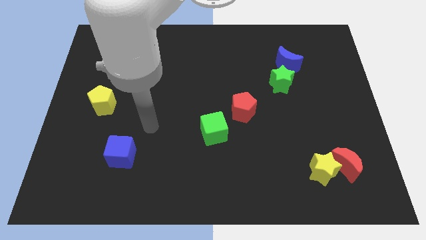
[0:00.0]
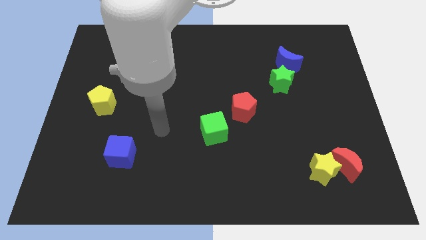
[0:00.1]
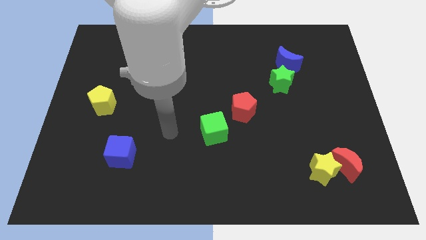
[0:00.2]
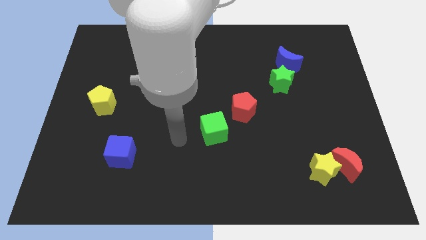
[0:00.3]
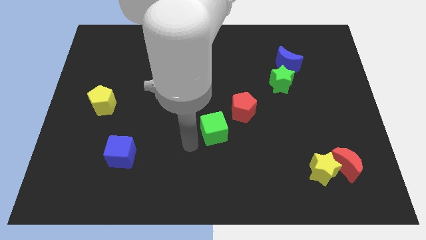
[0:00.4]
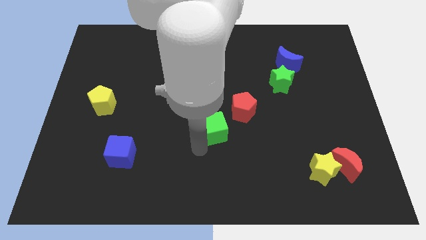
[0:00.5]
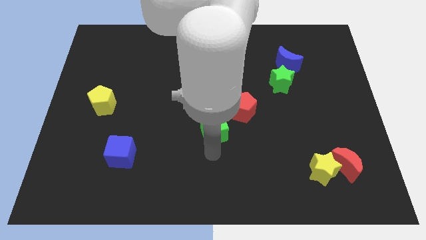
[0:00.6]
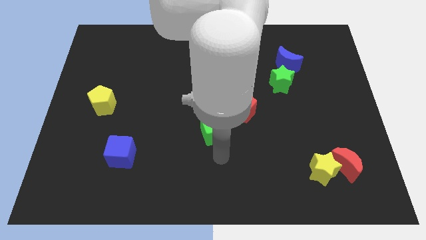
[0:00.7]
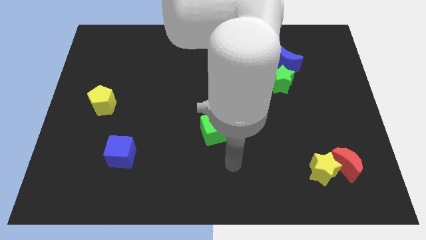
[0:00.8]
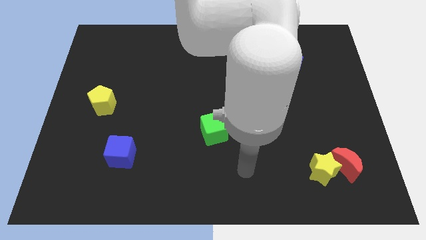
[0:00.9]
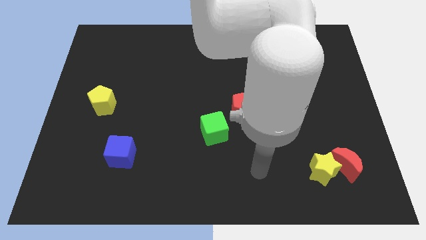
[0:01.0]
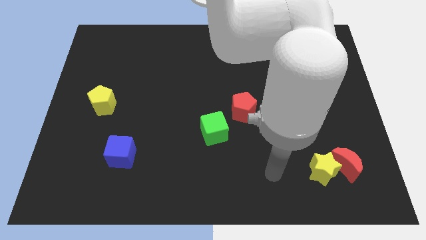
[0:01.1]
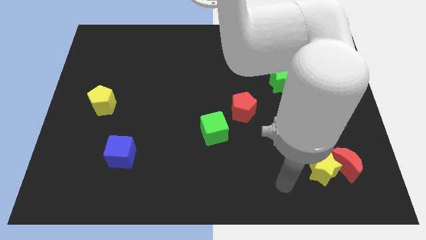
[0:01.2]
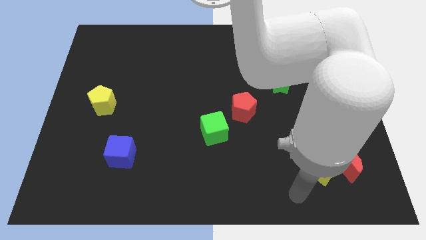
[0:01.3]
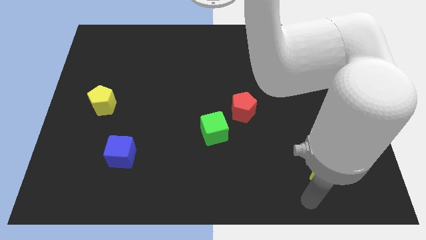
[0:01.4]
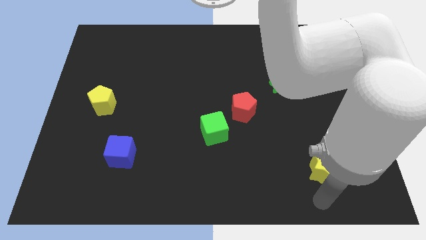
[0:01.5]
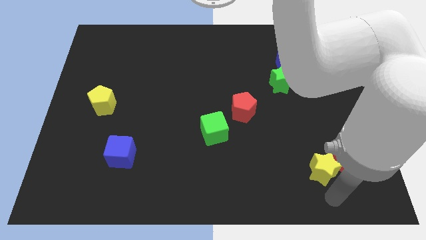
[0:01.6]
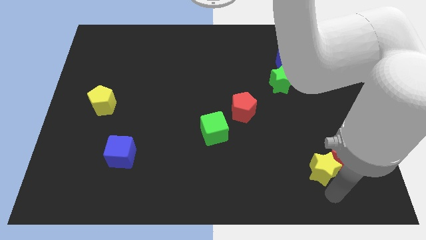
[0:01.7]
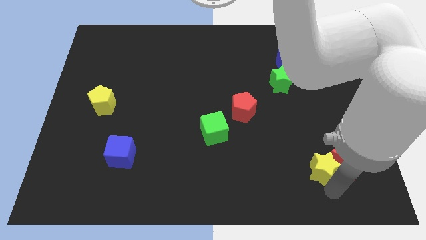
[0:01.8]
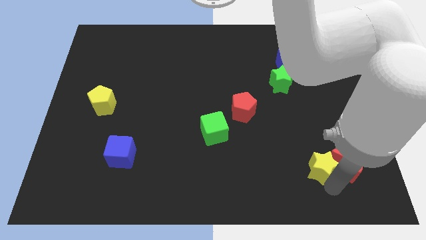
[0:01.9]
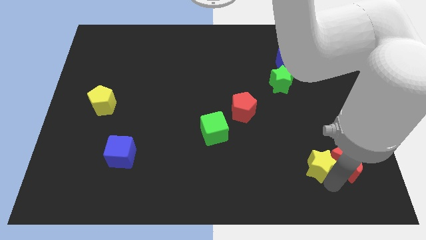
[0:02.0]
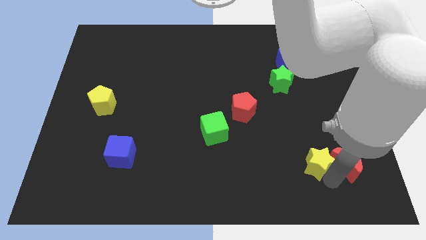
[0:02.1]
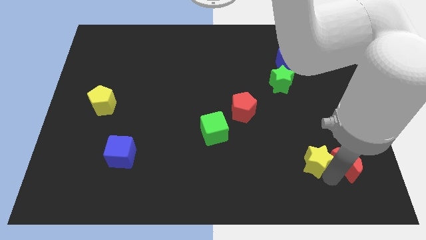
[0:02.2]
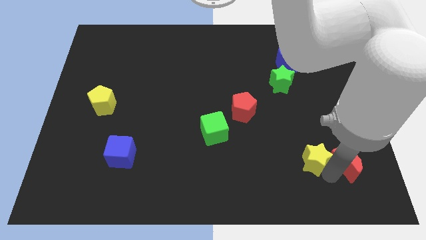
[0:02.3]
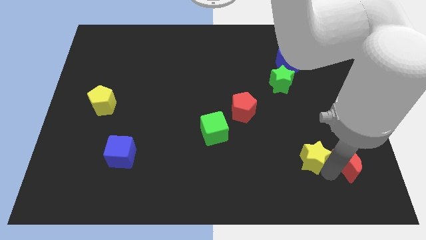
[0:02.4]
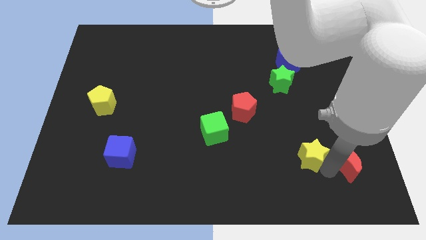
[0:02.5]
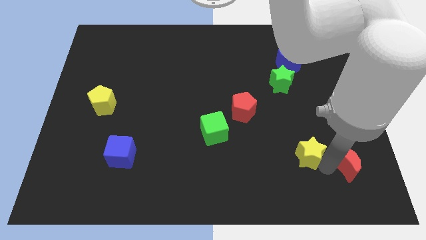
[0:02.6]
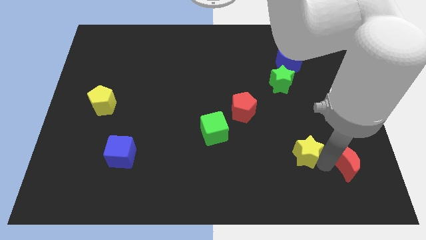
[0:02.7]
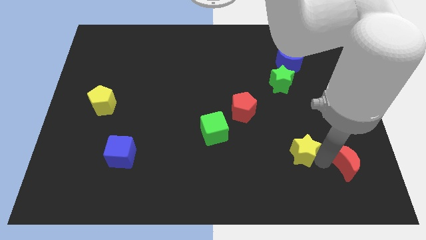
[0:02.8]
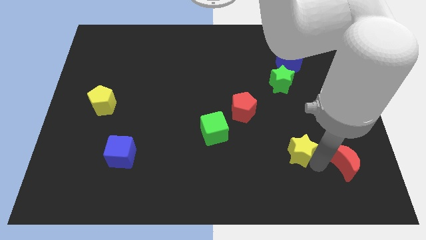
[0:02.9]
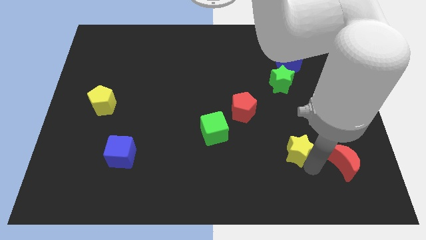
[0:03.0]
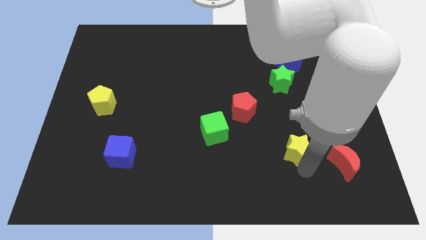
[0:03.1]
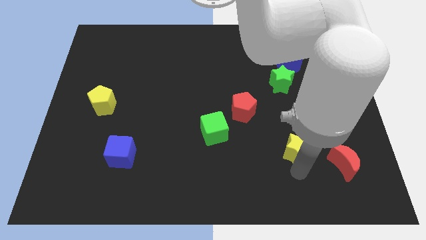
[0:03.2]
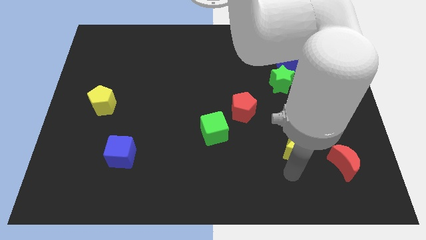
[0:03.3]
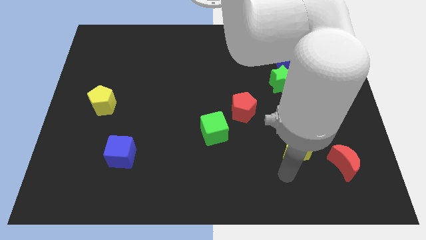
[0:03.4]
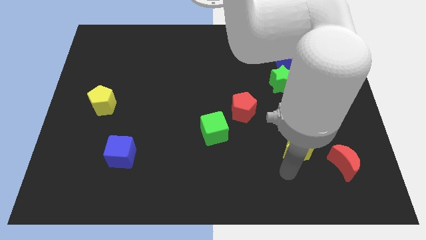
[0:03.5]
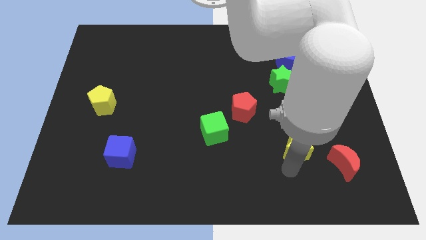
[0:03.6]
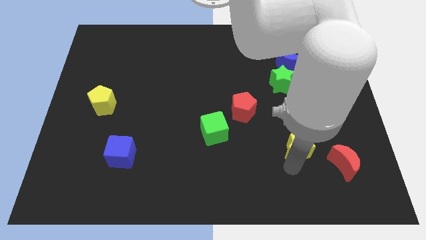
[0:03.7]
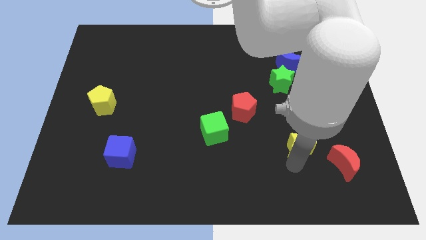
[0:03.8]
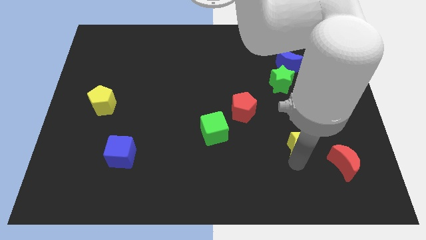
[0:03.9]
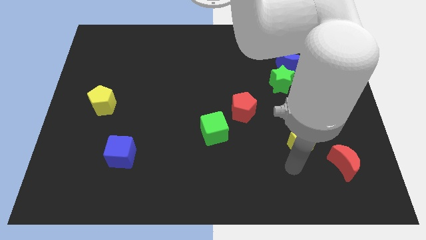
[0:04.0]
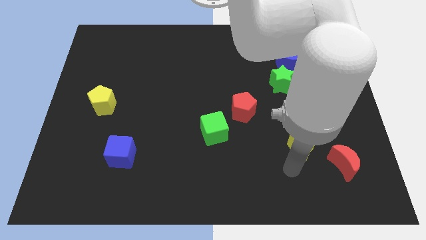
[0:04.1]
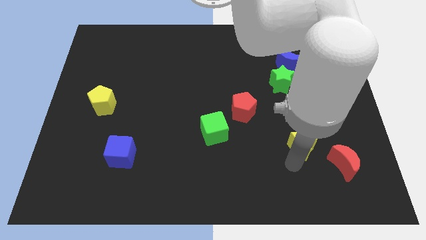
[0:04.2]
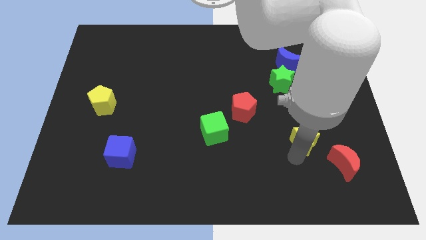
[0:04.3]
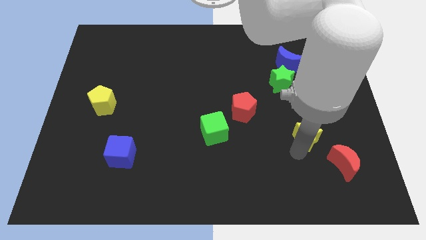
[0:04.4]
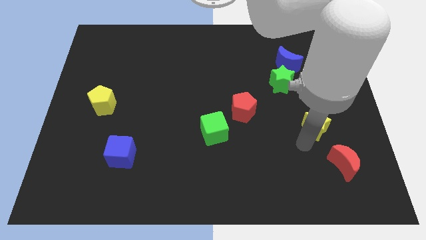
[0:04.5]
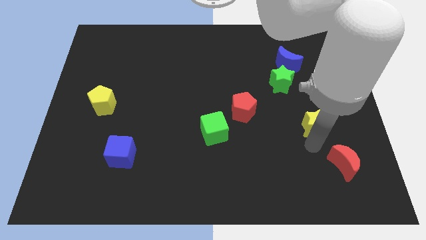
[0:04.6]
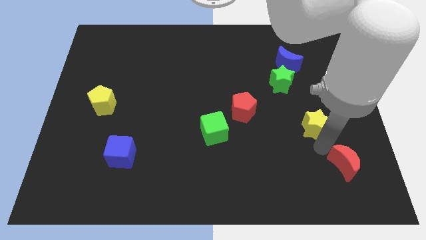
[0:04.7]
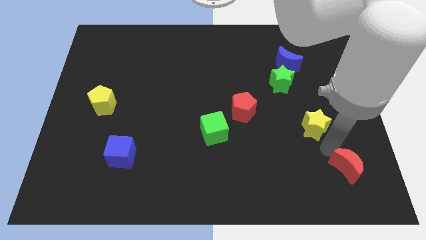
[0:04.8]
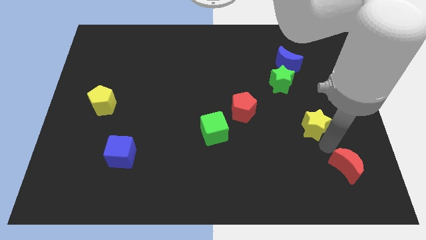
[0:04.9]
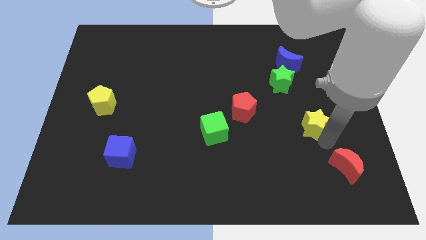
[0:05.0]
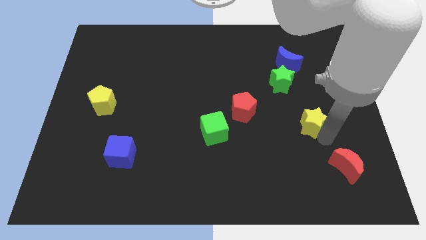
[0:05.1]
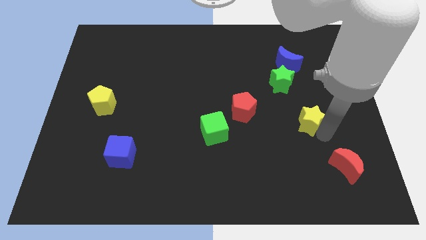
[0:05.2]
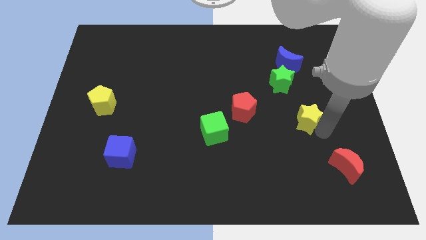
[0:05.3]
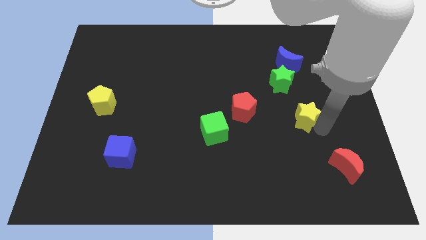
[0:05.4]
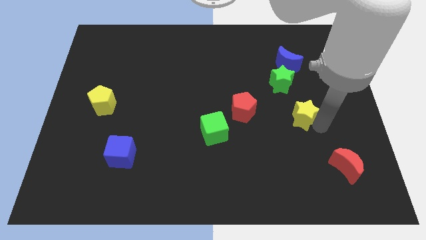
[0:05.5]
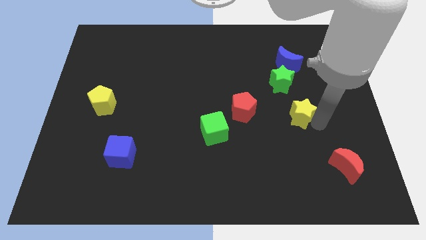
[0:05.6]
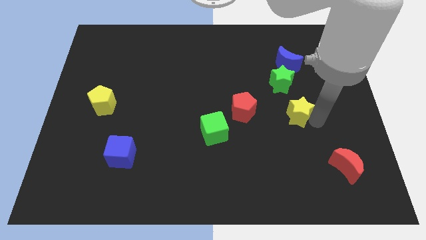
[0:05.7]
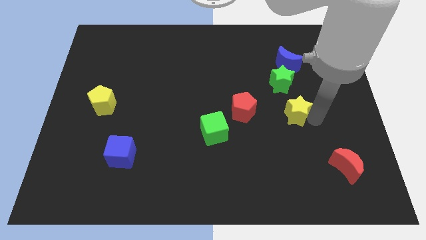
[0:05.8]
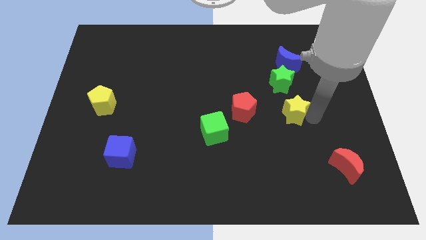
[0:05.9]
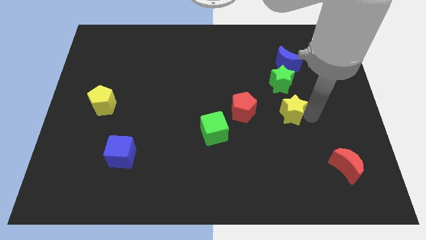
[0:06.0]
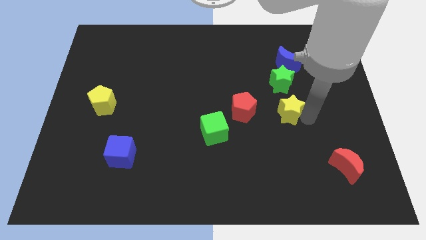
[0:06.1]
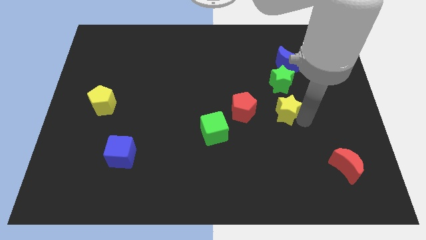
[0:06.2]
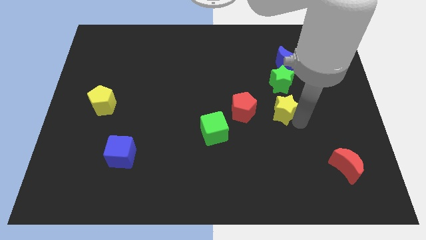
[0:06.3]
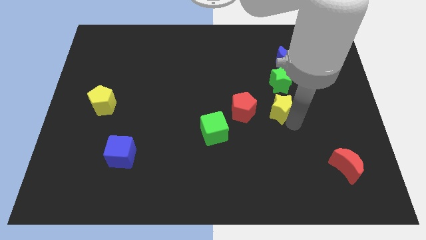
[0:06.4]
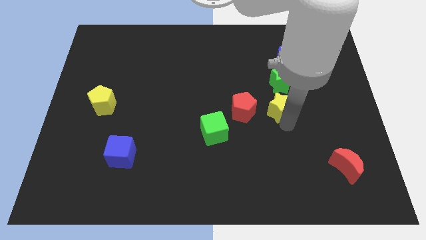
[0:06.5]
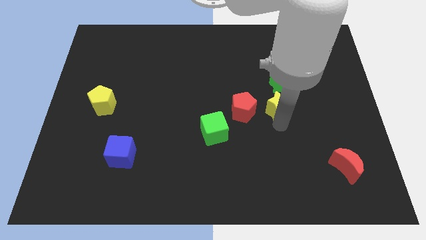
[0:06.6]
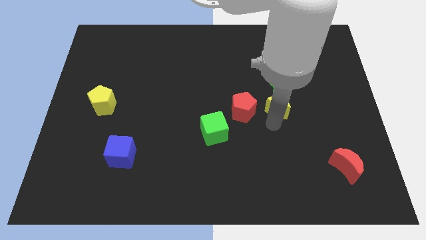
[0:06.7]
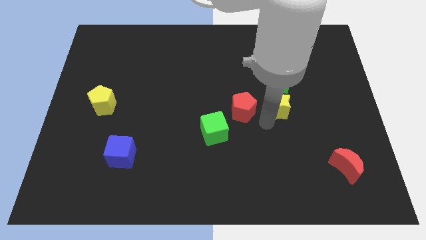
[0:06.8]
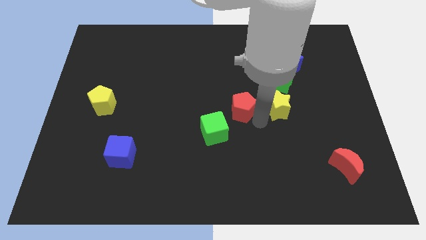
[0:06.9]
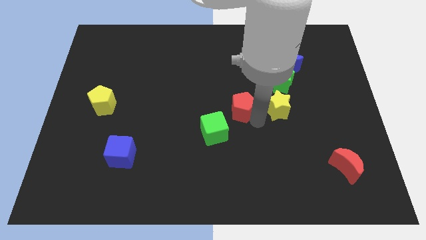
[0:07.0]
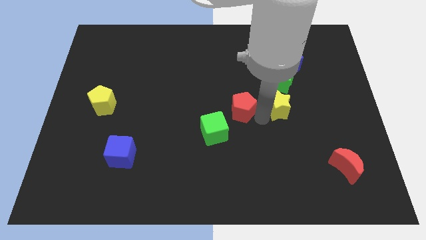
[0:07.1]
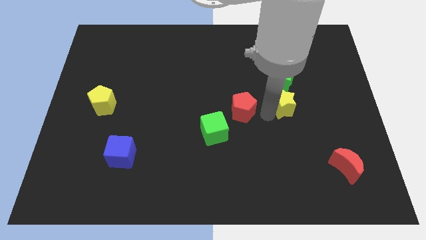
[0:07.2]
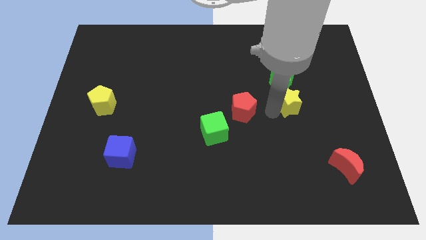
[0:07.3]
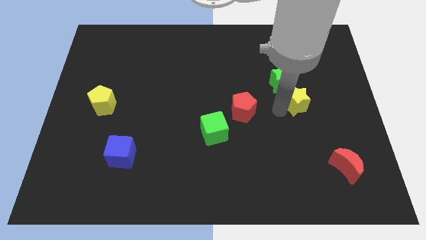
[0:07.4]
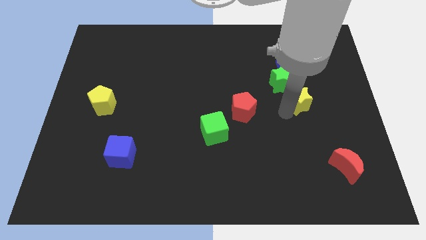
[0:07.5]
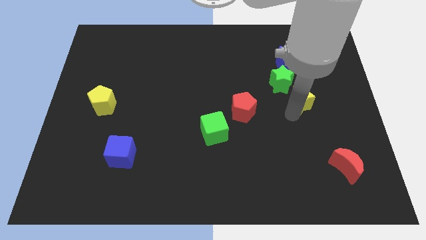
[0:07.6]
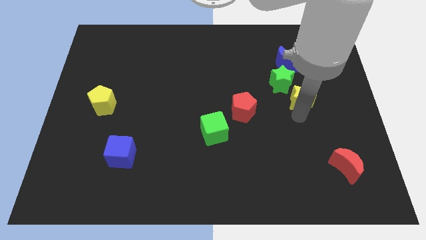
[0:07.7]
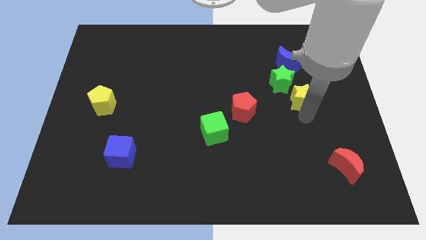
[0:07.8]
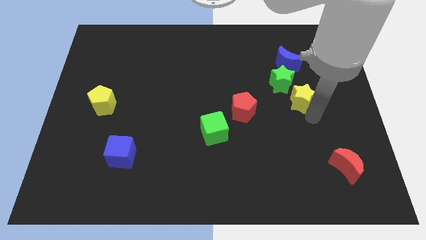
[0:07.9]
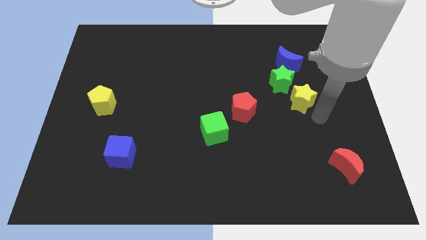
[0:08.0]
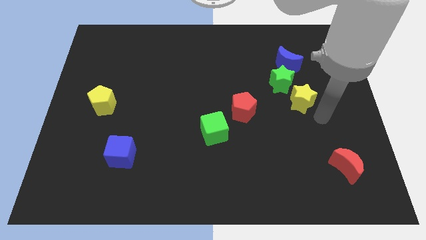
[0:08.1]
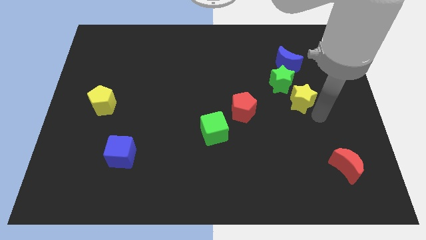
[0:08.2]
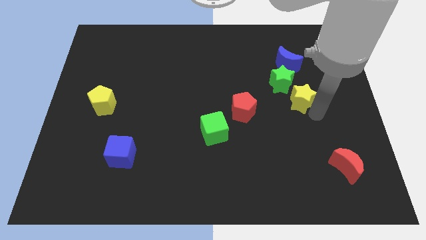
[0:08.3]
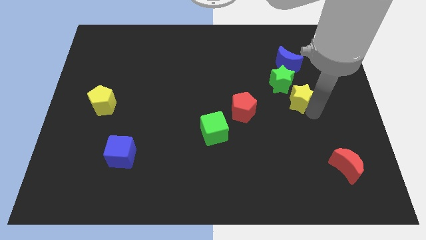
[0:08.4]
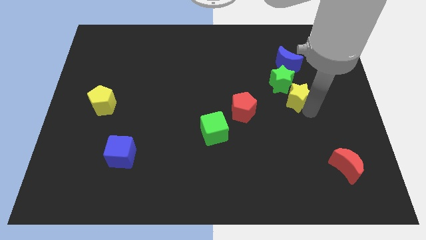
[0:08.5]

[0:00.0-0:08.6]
slide the yellow star to the green star
